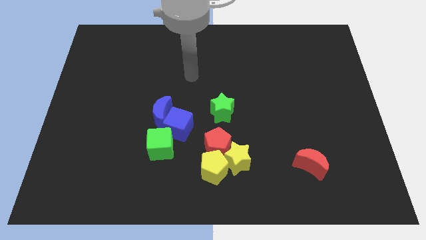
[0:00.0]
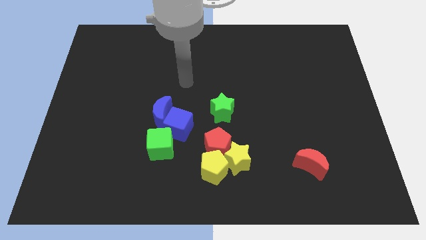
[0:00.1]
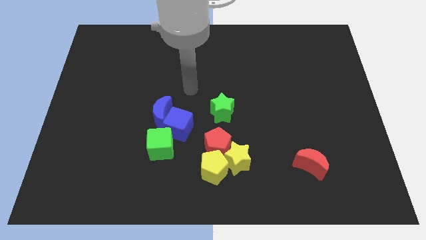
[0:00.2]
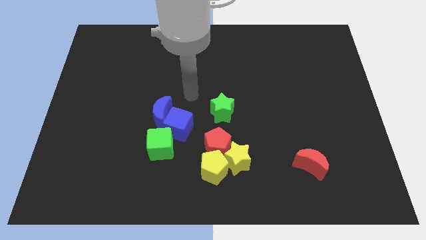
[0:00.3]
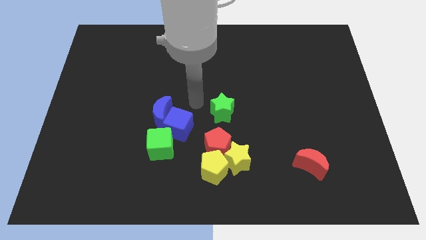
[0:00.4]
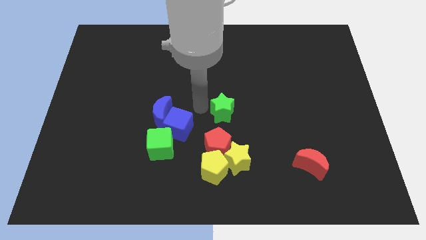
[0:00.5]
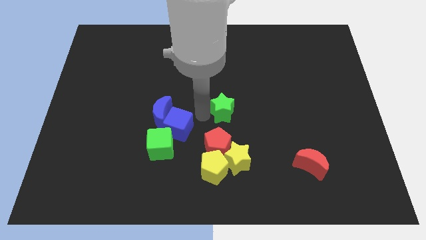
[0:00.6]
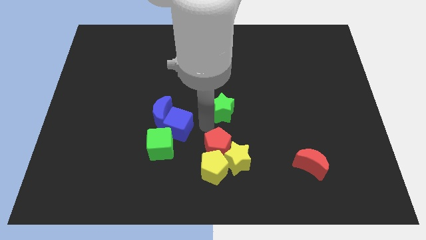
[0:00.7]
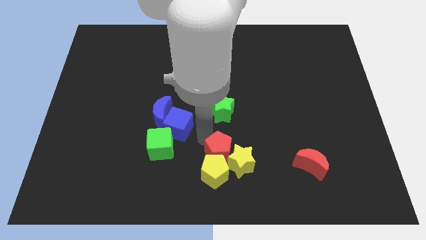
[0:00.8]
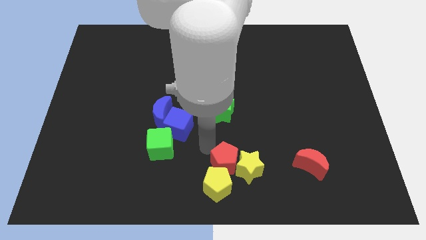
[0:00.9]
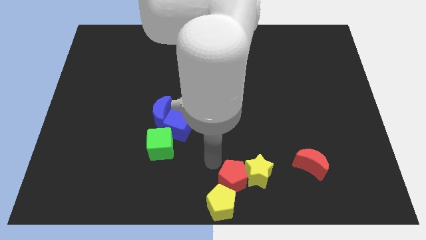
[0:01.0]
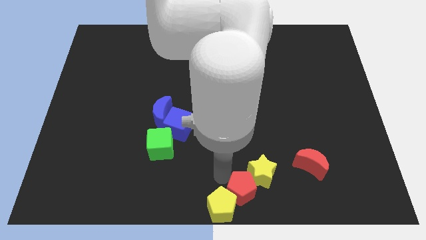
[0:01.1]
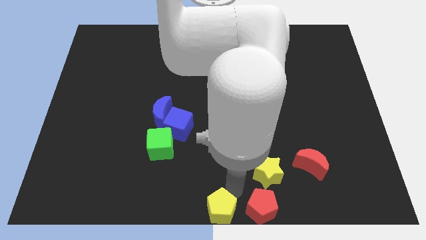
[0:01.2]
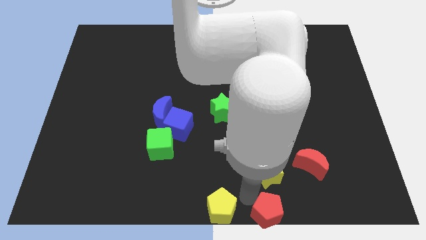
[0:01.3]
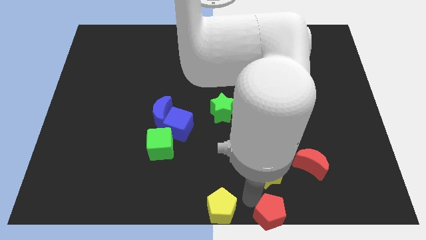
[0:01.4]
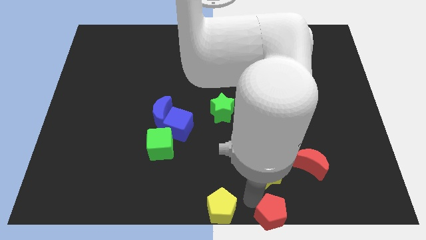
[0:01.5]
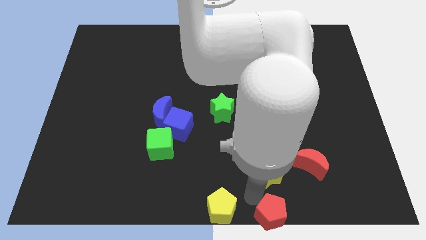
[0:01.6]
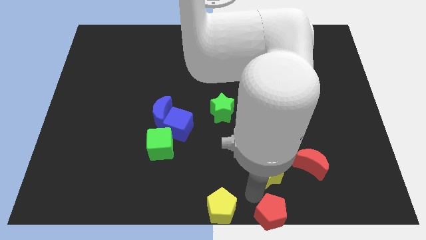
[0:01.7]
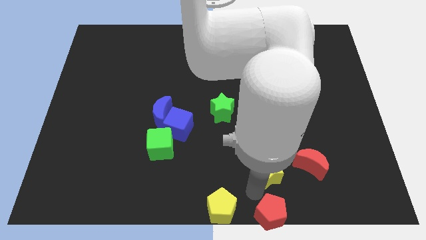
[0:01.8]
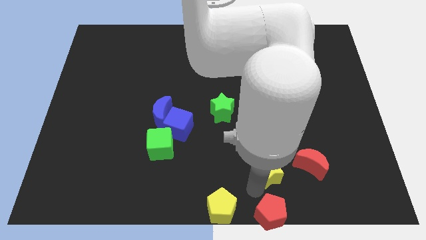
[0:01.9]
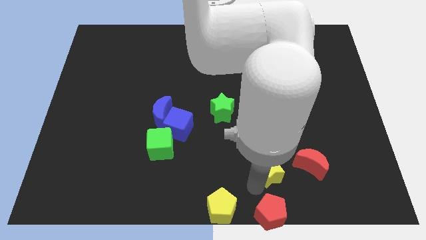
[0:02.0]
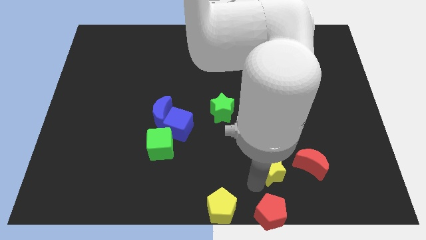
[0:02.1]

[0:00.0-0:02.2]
move the yellow star away from the yellow pentagon and red pentagon

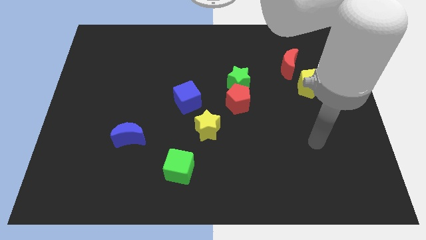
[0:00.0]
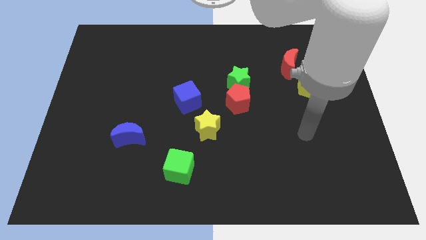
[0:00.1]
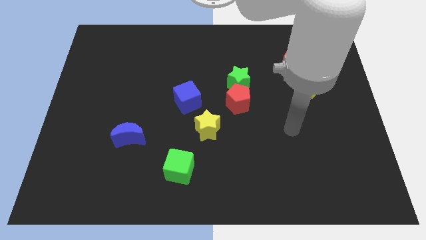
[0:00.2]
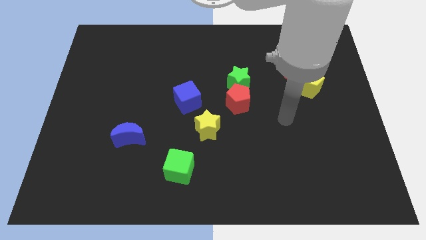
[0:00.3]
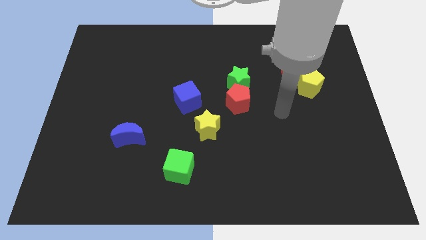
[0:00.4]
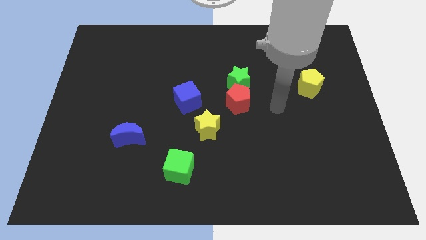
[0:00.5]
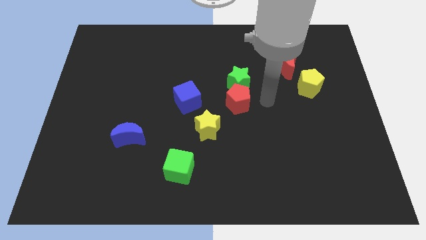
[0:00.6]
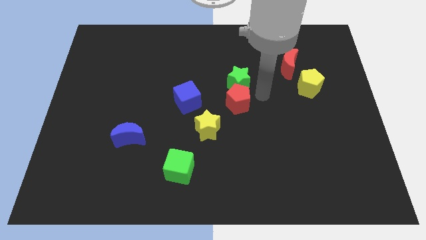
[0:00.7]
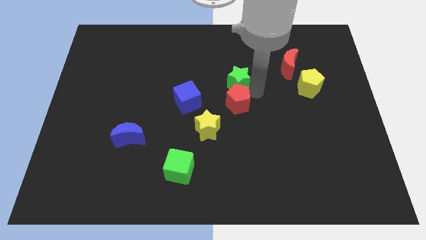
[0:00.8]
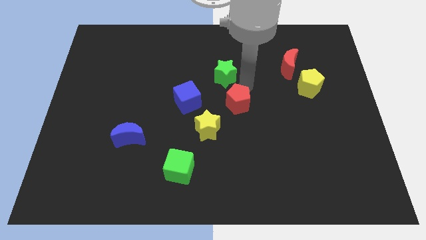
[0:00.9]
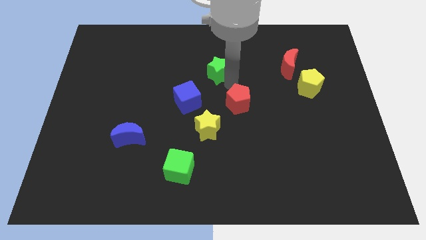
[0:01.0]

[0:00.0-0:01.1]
separate the red pentagon from the green star

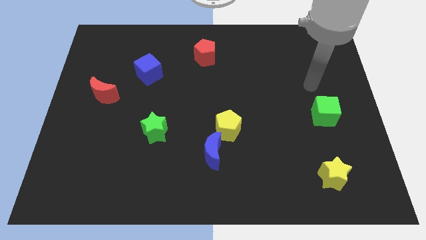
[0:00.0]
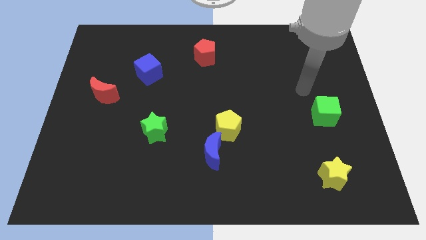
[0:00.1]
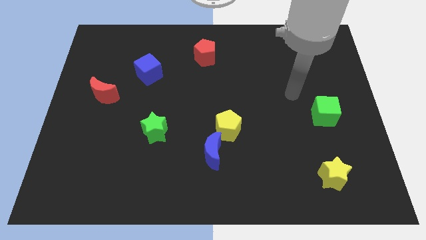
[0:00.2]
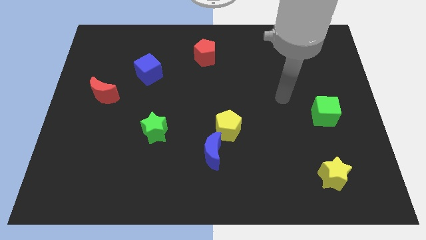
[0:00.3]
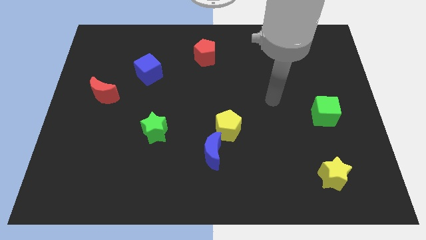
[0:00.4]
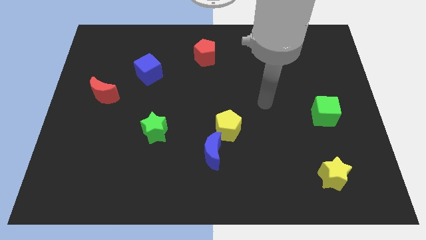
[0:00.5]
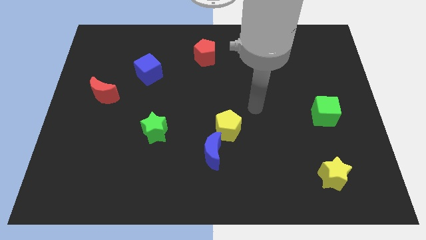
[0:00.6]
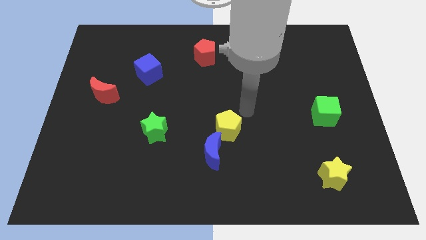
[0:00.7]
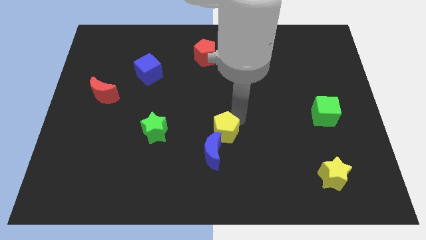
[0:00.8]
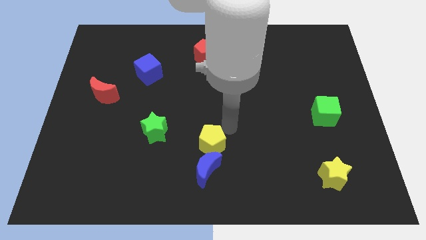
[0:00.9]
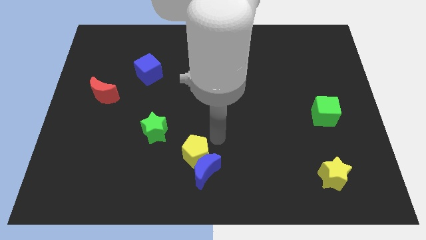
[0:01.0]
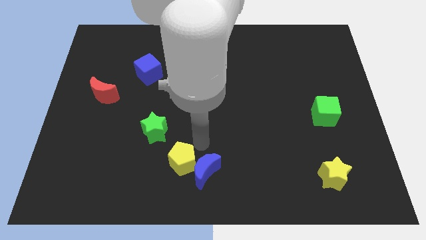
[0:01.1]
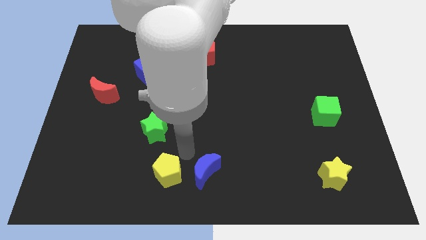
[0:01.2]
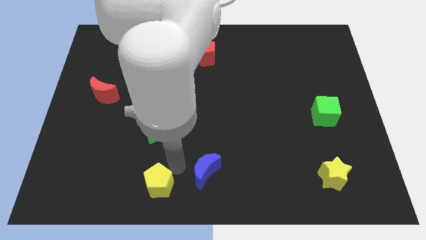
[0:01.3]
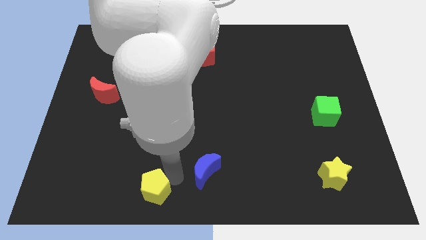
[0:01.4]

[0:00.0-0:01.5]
move the blue moon away from the yellow pentagon

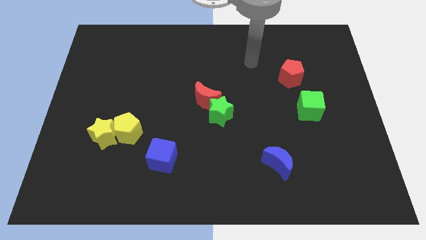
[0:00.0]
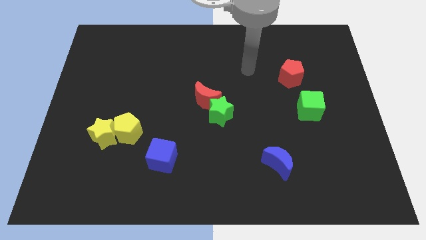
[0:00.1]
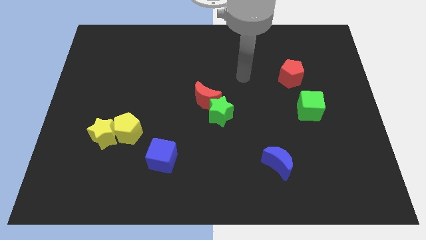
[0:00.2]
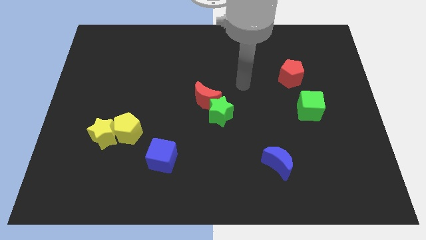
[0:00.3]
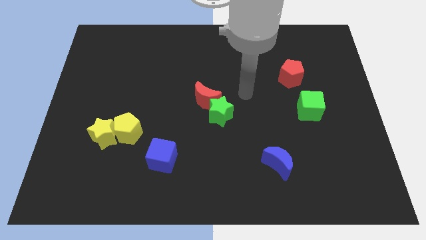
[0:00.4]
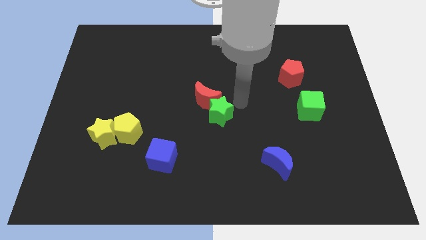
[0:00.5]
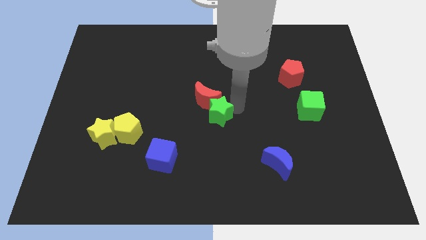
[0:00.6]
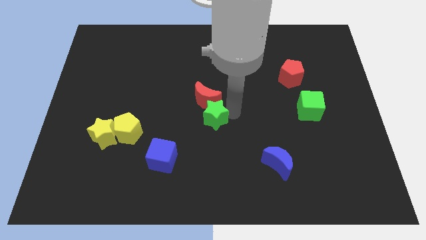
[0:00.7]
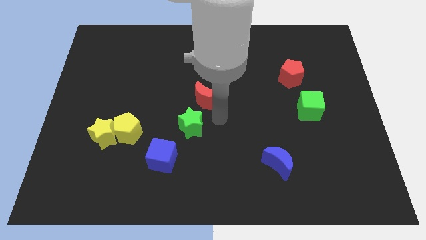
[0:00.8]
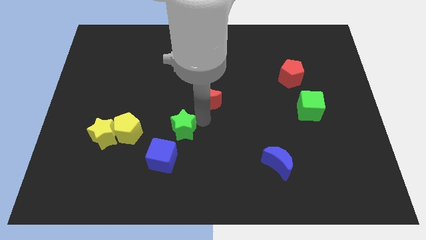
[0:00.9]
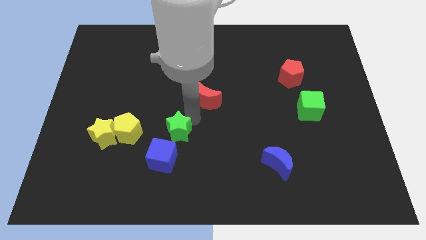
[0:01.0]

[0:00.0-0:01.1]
pull the red moon apart from the green star

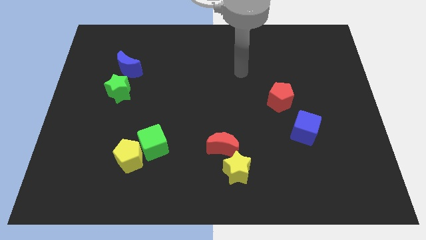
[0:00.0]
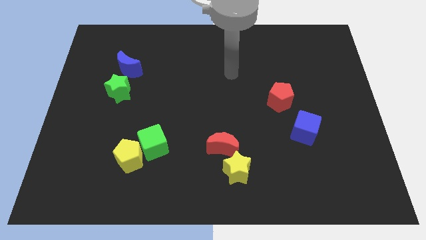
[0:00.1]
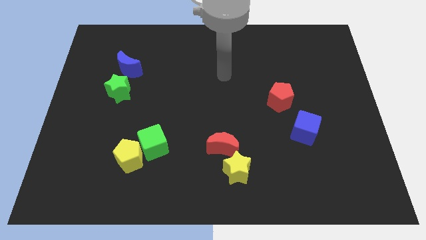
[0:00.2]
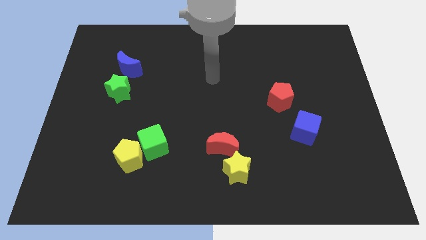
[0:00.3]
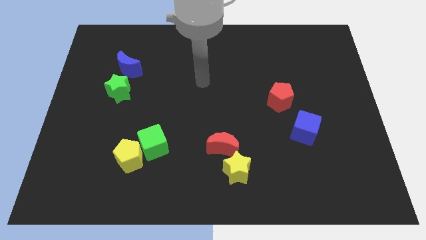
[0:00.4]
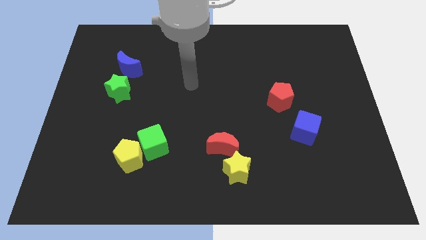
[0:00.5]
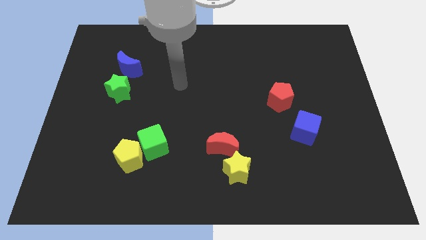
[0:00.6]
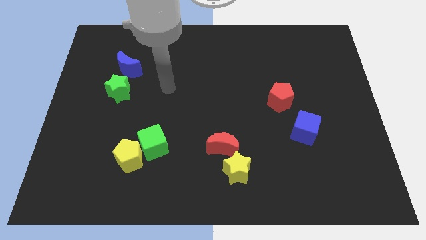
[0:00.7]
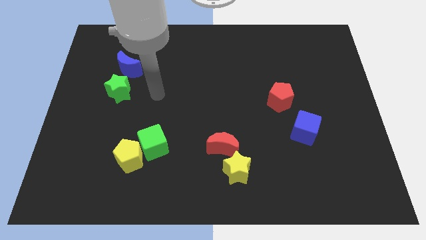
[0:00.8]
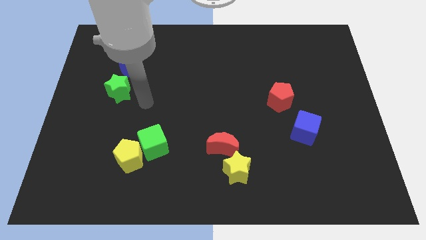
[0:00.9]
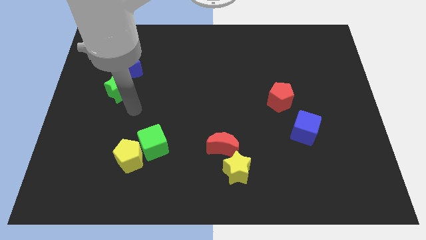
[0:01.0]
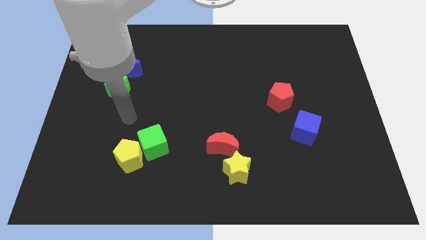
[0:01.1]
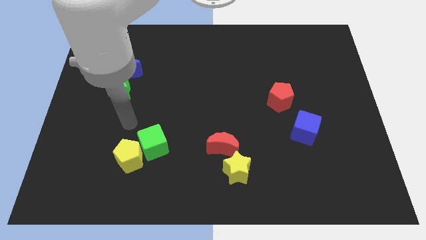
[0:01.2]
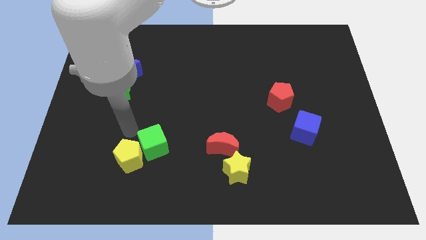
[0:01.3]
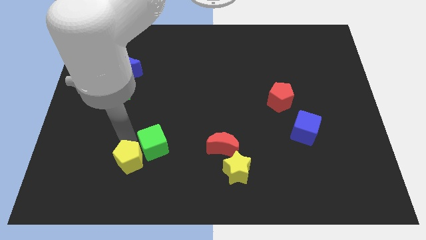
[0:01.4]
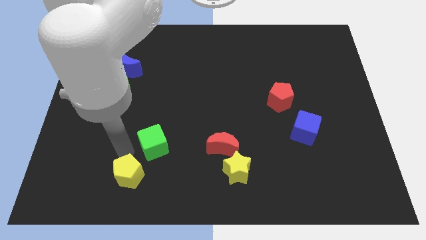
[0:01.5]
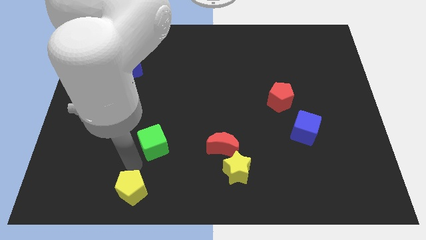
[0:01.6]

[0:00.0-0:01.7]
move the green cube away from the yellow pentagon

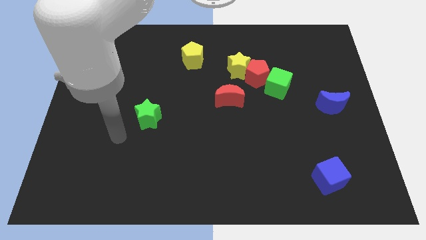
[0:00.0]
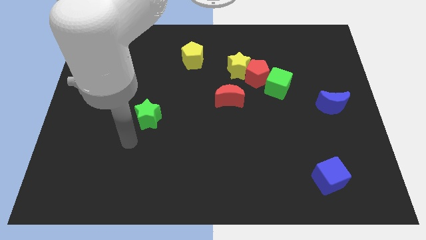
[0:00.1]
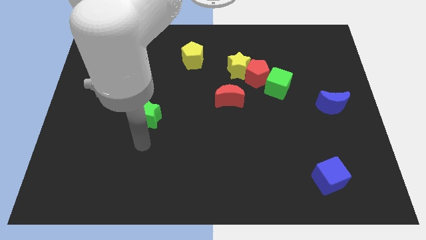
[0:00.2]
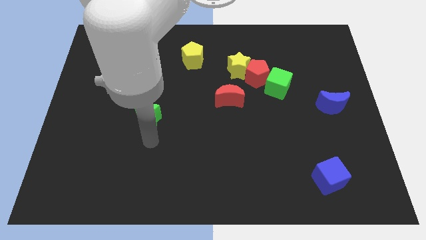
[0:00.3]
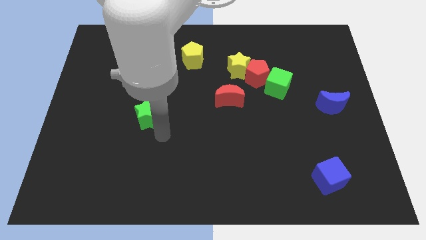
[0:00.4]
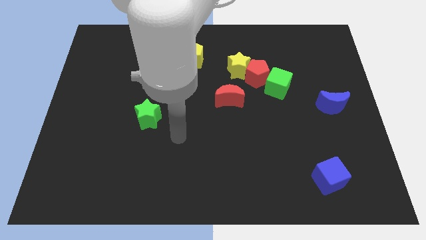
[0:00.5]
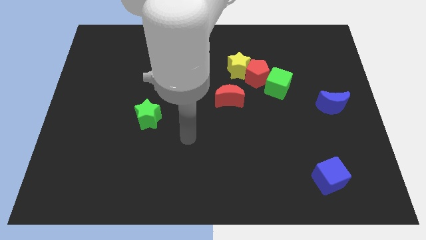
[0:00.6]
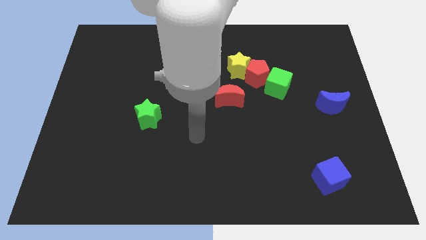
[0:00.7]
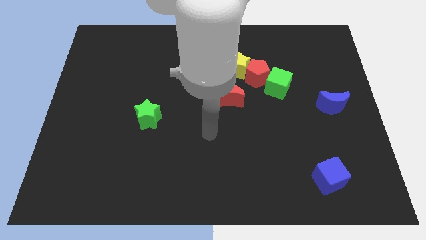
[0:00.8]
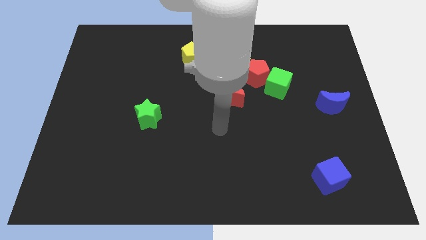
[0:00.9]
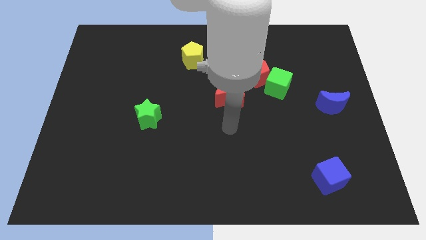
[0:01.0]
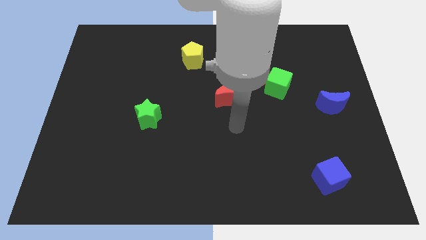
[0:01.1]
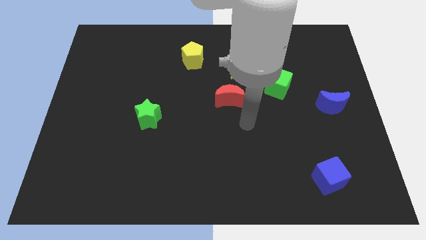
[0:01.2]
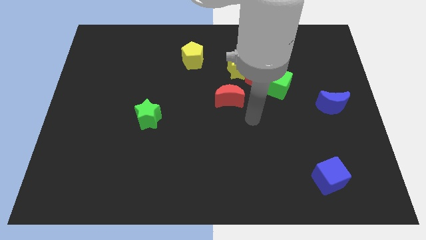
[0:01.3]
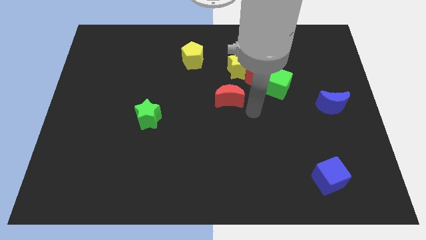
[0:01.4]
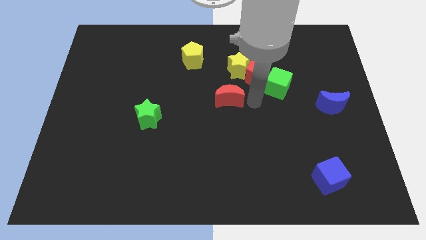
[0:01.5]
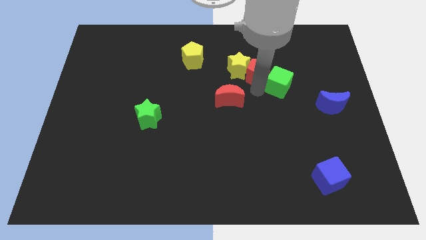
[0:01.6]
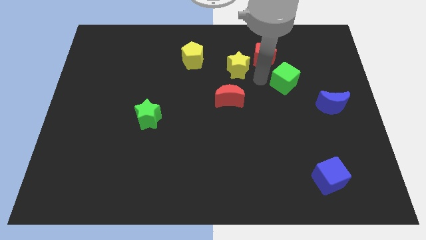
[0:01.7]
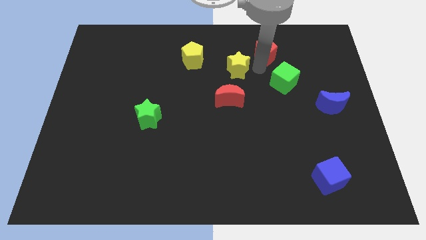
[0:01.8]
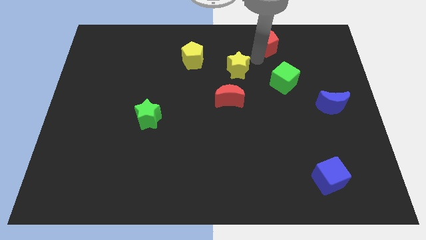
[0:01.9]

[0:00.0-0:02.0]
move the yellow star away from the red pentagon
